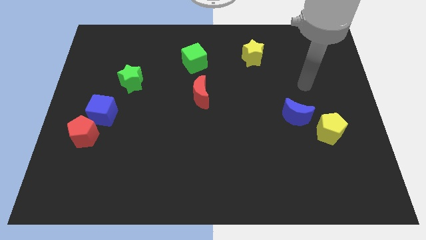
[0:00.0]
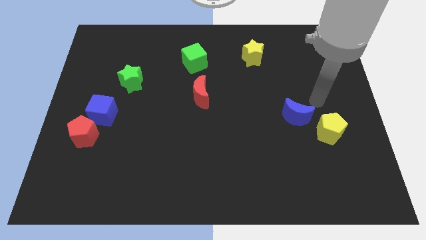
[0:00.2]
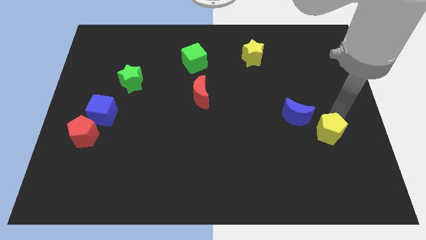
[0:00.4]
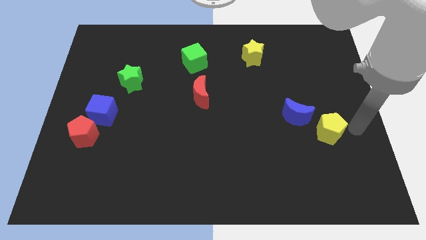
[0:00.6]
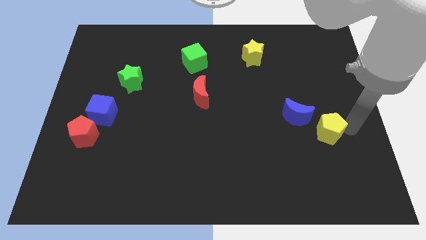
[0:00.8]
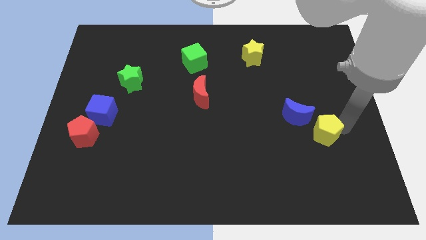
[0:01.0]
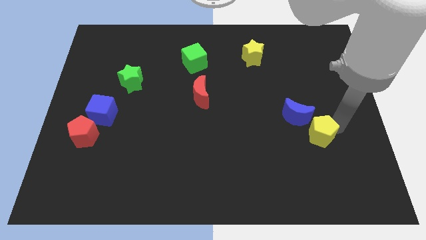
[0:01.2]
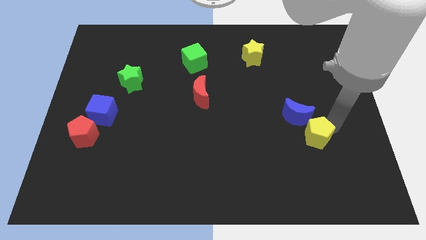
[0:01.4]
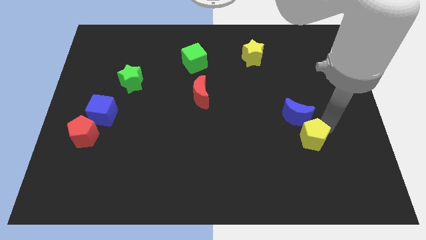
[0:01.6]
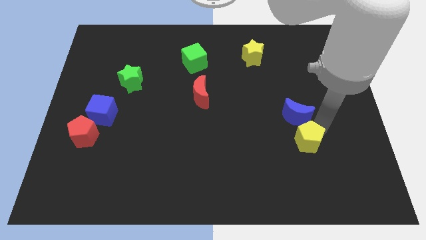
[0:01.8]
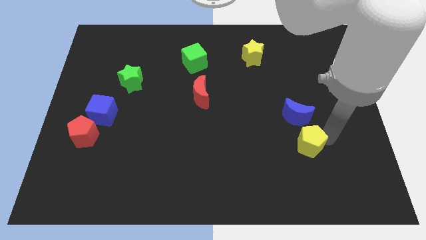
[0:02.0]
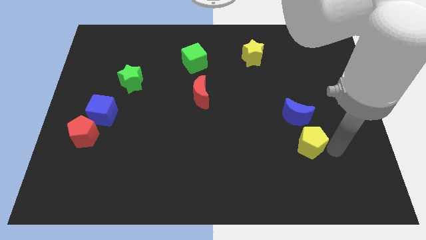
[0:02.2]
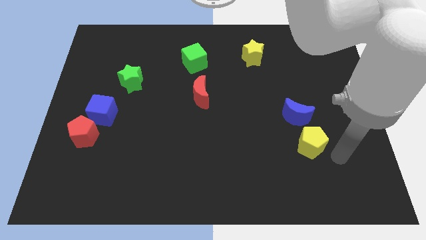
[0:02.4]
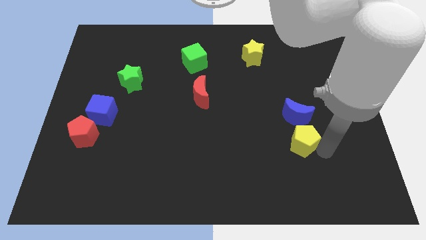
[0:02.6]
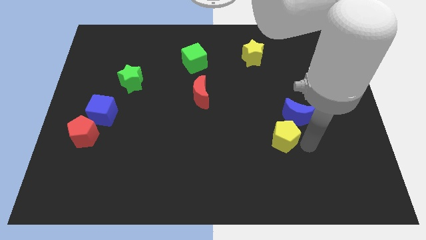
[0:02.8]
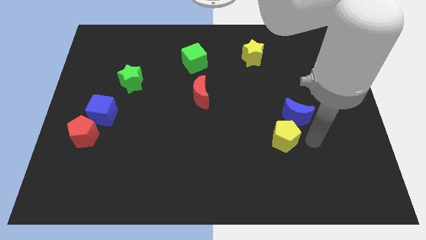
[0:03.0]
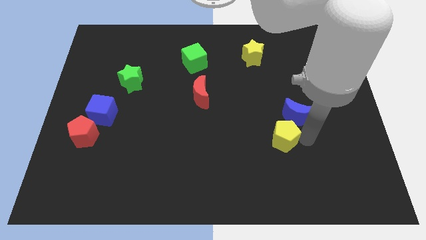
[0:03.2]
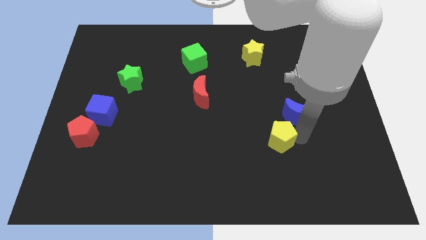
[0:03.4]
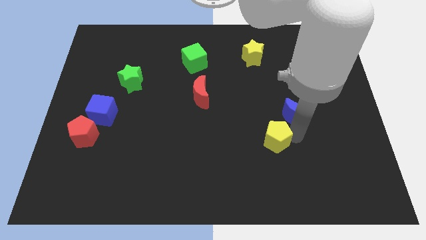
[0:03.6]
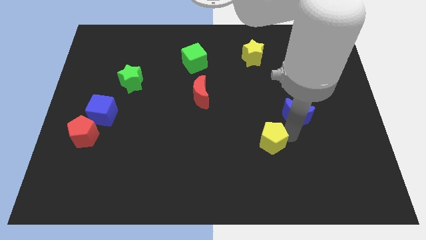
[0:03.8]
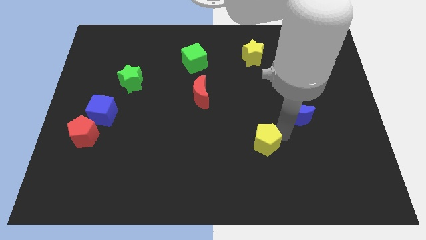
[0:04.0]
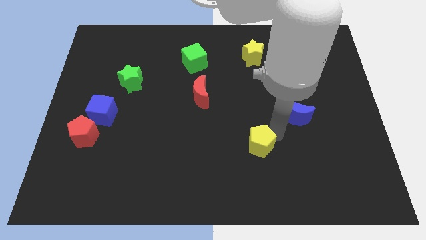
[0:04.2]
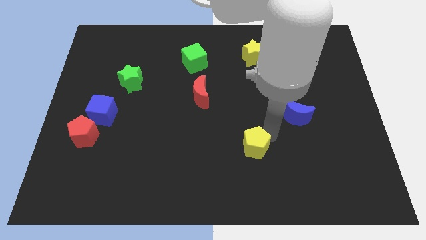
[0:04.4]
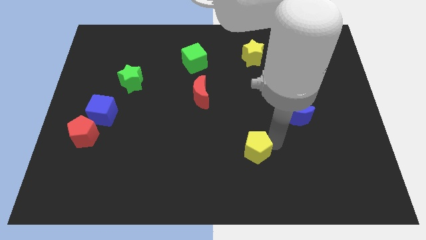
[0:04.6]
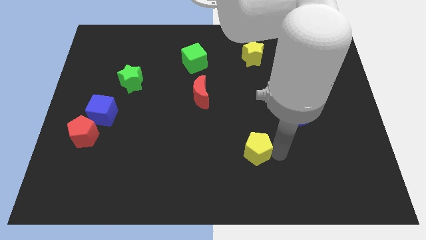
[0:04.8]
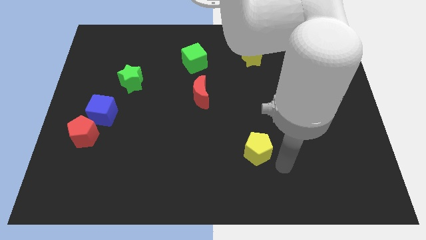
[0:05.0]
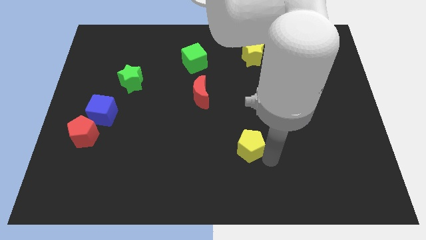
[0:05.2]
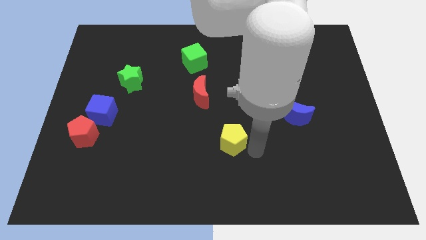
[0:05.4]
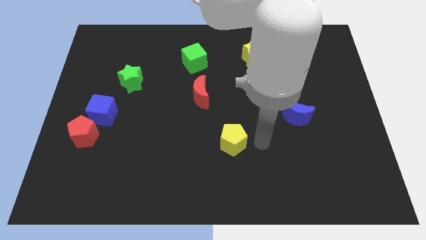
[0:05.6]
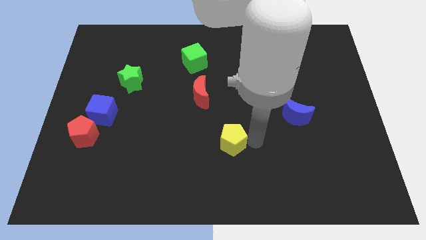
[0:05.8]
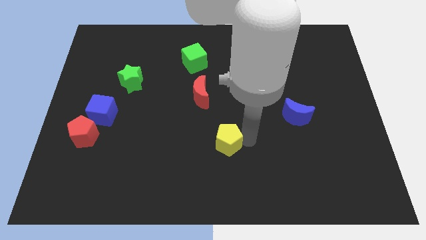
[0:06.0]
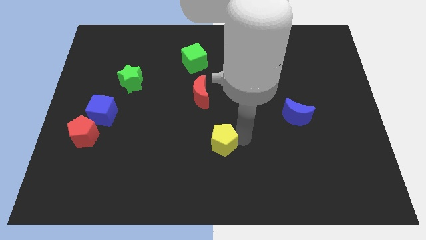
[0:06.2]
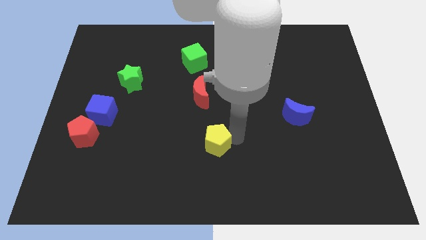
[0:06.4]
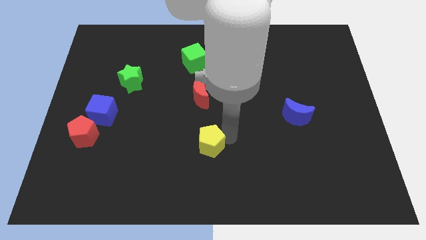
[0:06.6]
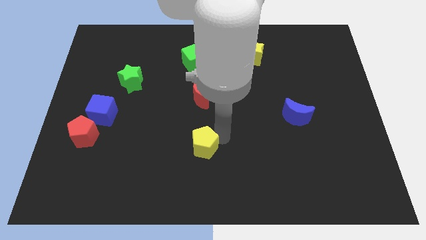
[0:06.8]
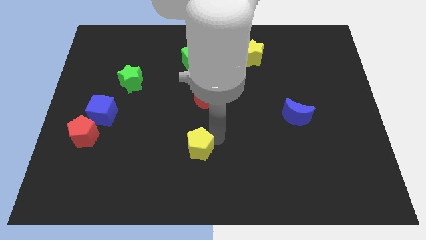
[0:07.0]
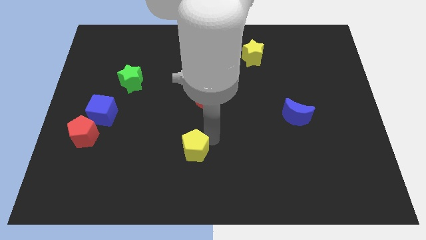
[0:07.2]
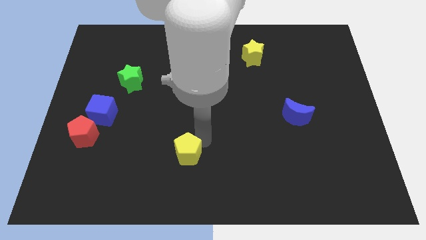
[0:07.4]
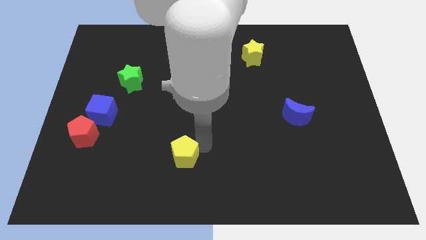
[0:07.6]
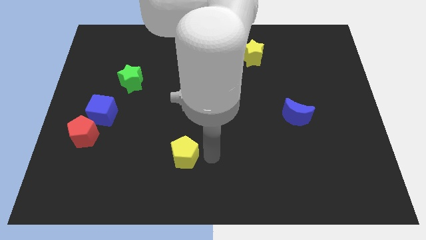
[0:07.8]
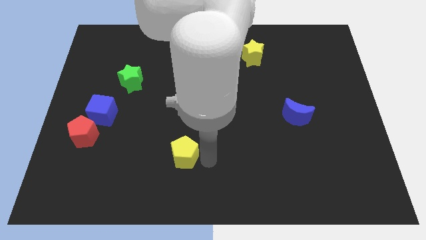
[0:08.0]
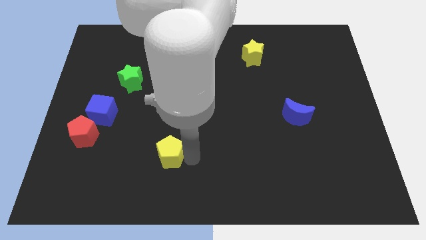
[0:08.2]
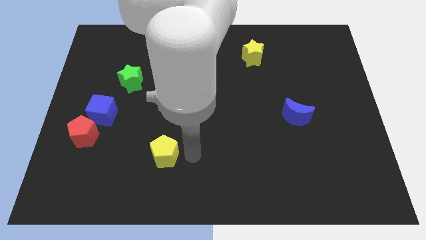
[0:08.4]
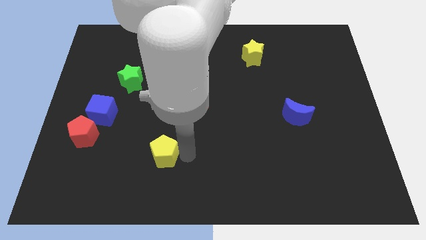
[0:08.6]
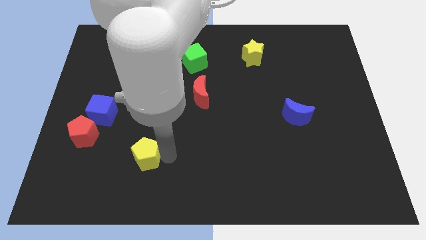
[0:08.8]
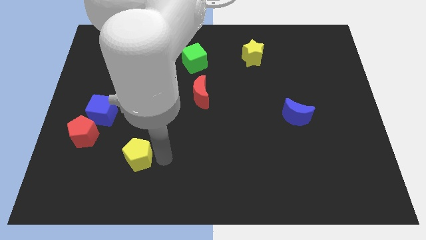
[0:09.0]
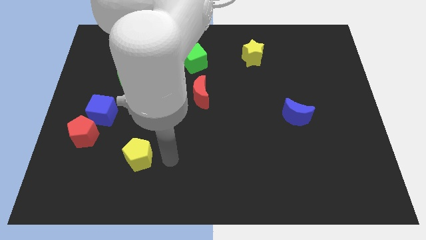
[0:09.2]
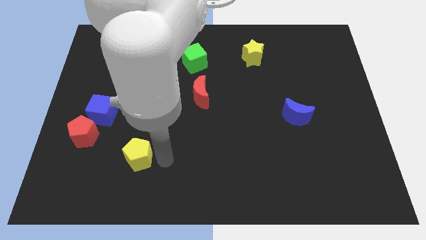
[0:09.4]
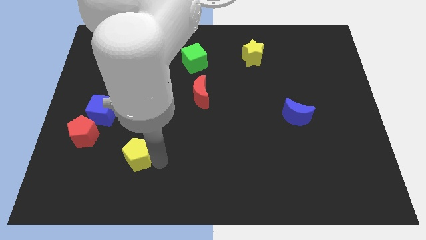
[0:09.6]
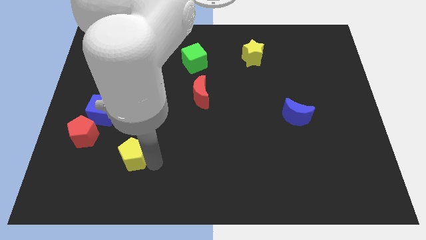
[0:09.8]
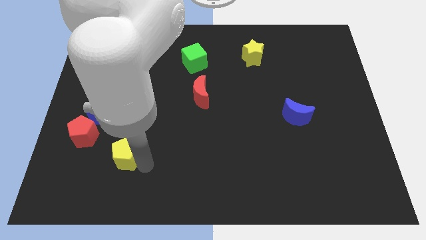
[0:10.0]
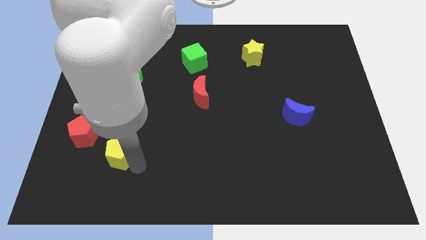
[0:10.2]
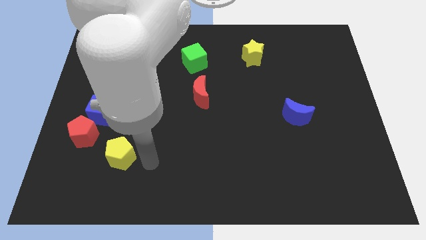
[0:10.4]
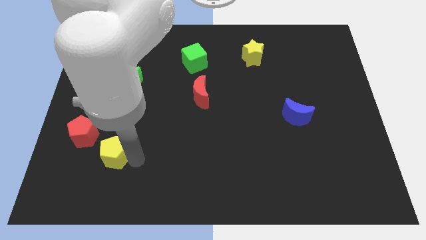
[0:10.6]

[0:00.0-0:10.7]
put the yellow pentagon to the bottom of the blue cube

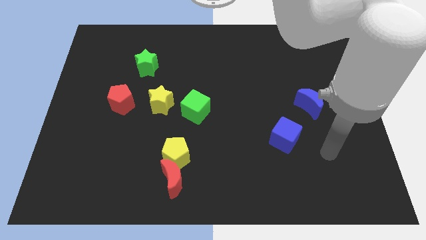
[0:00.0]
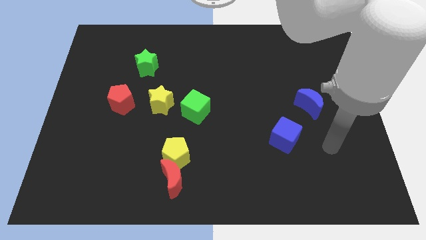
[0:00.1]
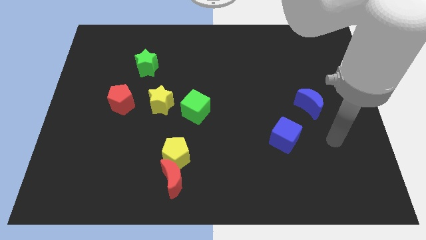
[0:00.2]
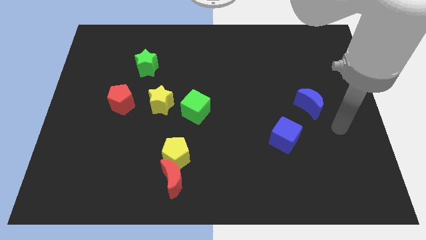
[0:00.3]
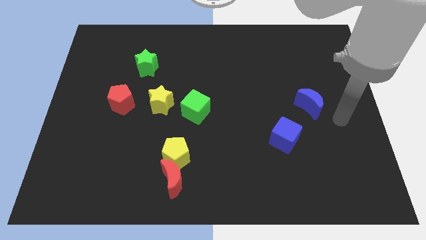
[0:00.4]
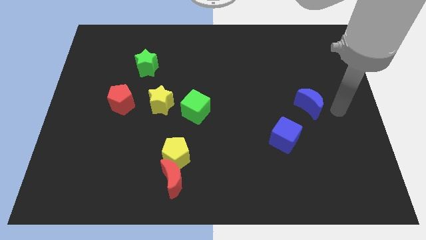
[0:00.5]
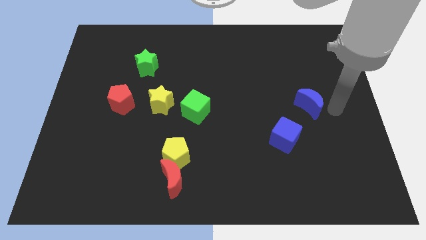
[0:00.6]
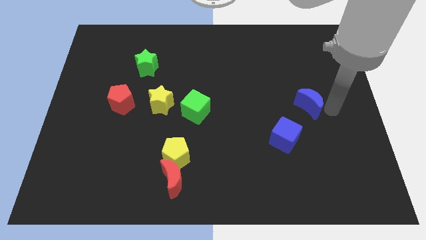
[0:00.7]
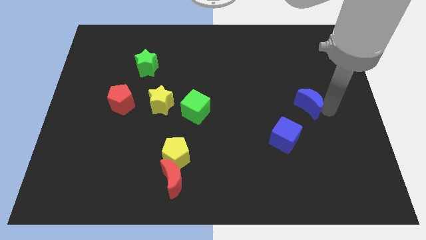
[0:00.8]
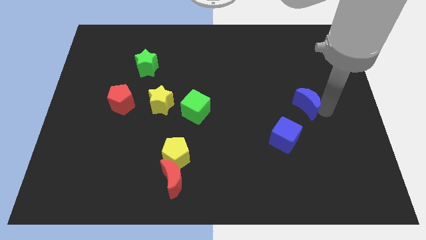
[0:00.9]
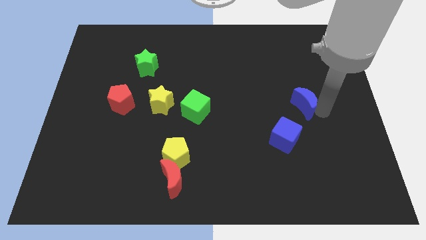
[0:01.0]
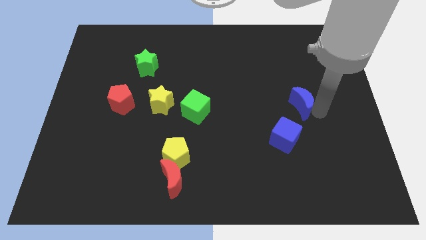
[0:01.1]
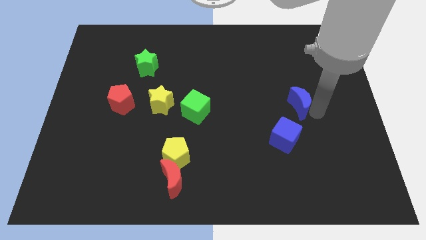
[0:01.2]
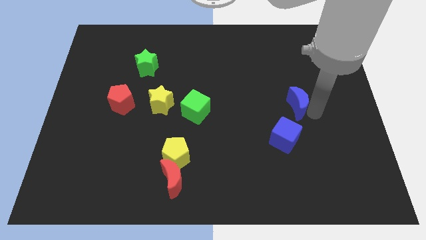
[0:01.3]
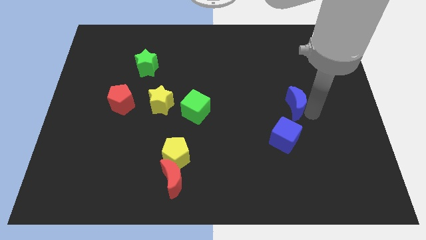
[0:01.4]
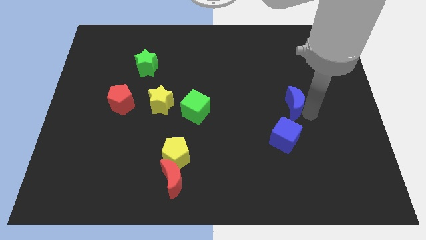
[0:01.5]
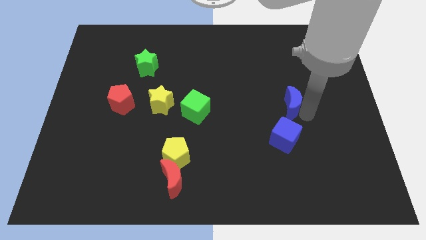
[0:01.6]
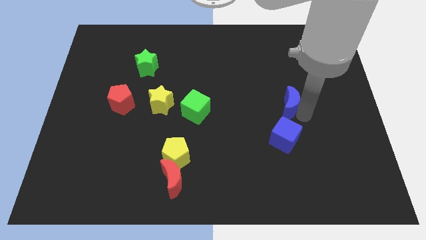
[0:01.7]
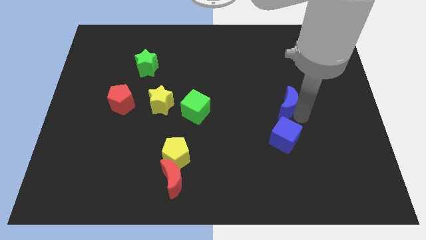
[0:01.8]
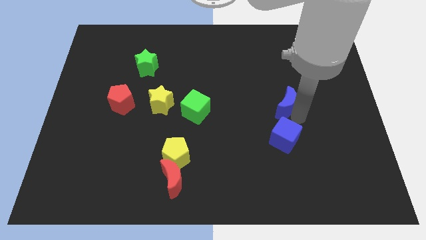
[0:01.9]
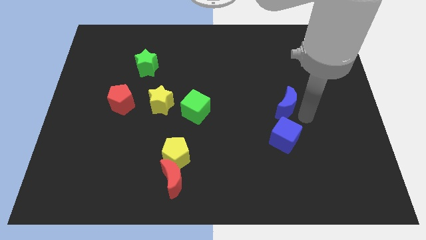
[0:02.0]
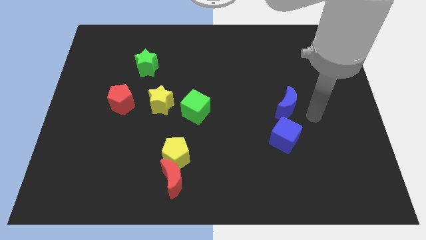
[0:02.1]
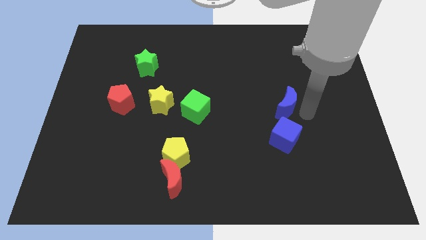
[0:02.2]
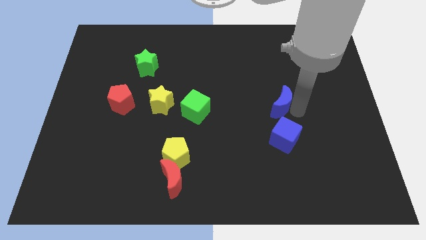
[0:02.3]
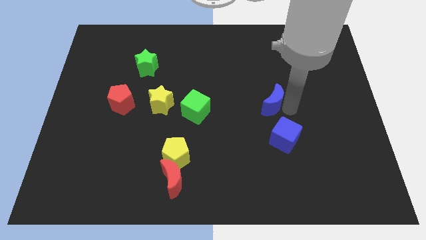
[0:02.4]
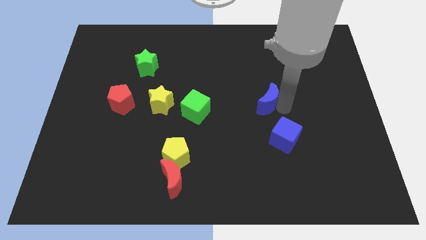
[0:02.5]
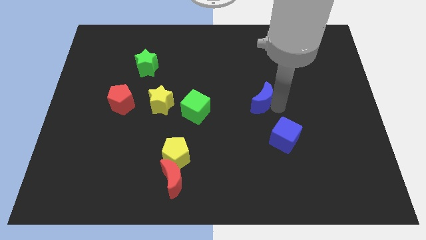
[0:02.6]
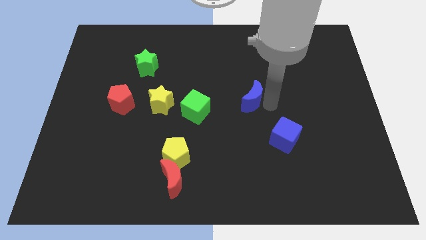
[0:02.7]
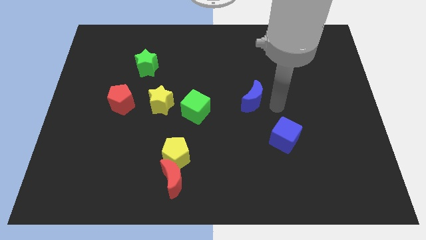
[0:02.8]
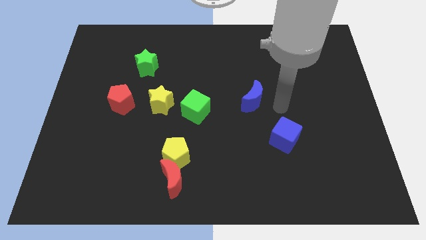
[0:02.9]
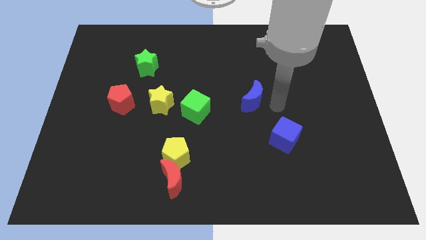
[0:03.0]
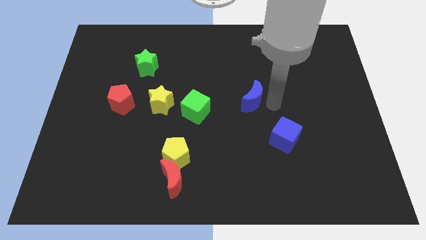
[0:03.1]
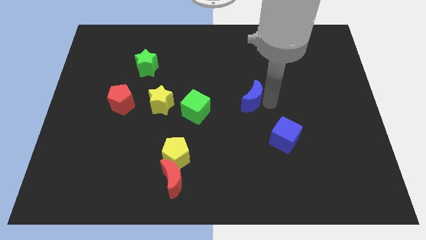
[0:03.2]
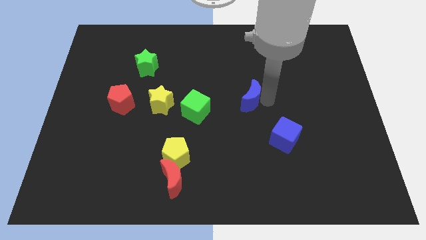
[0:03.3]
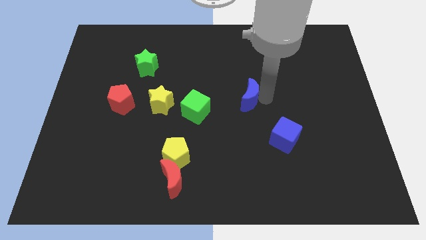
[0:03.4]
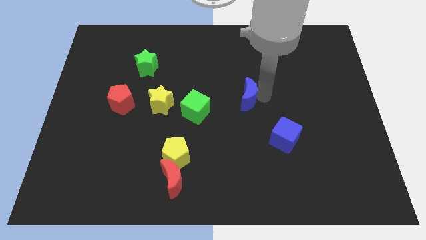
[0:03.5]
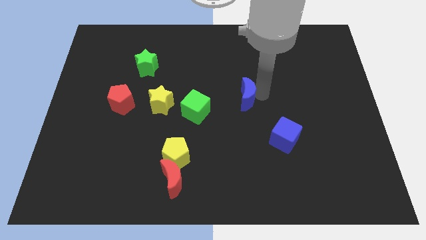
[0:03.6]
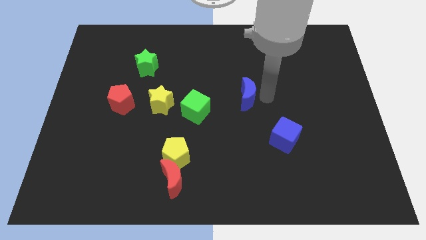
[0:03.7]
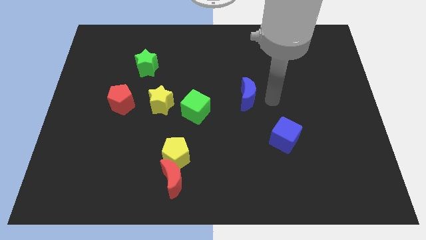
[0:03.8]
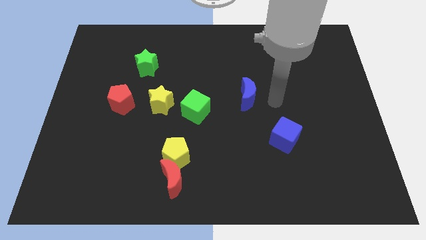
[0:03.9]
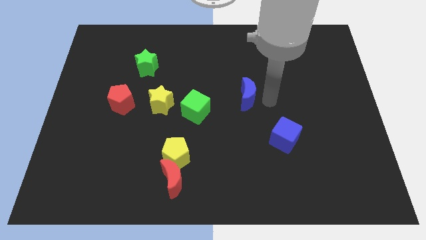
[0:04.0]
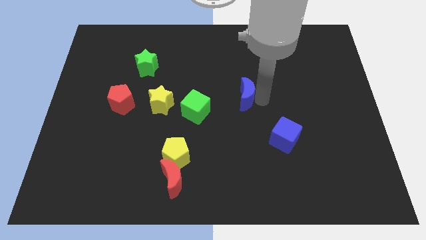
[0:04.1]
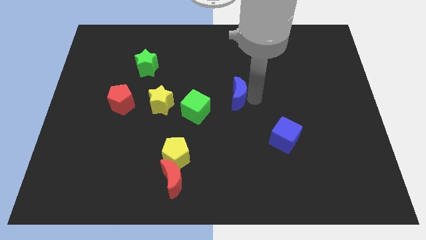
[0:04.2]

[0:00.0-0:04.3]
move the blue moon to the top right side of the green cube
